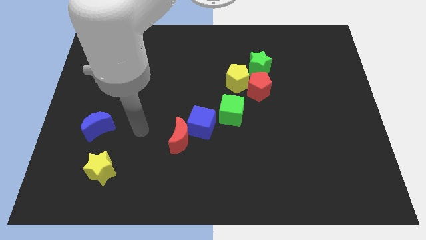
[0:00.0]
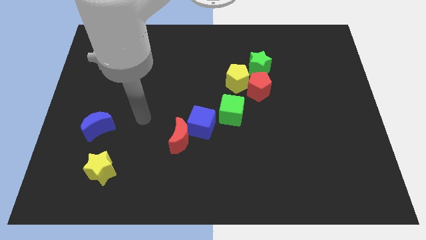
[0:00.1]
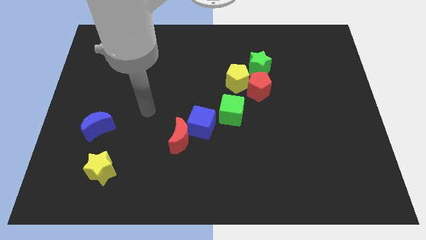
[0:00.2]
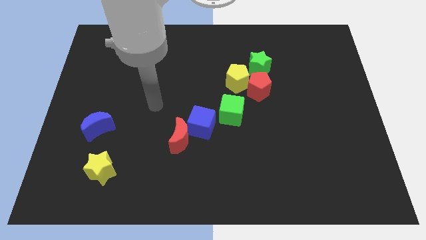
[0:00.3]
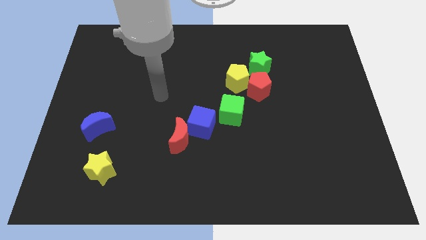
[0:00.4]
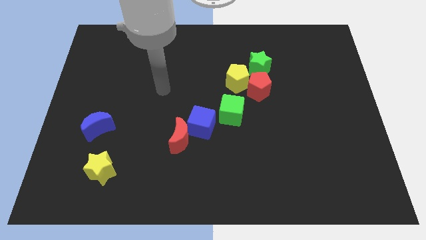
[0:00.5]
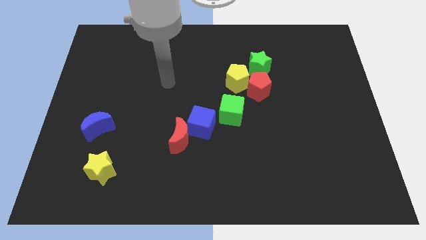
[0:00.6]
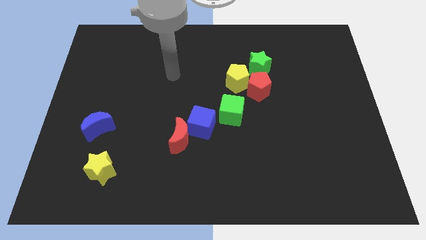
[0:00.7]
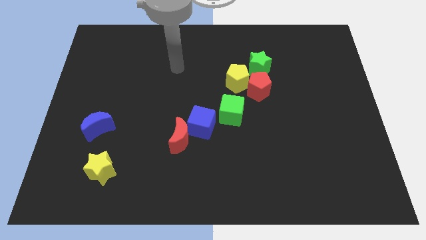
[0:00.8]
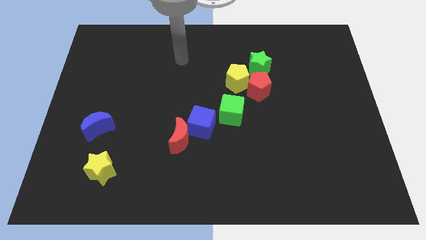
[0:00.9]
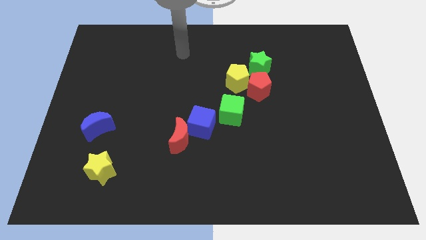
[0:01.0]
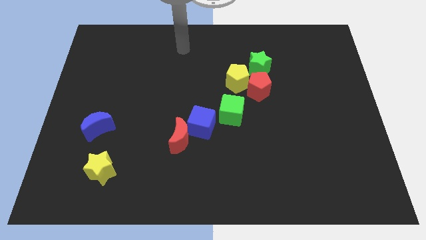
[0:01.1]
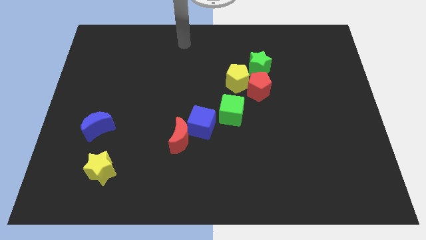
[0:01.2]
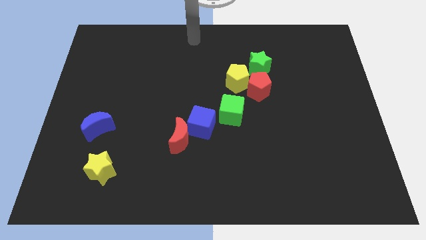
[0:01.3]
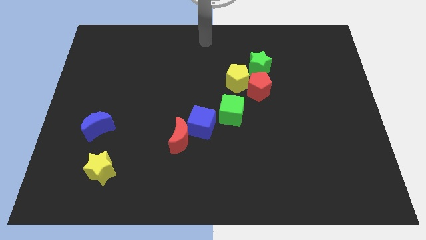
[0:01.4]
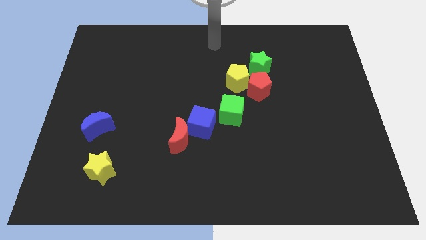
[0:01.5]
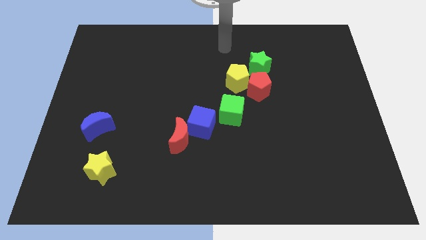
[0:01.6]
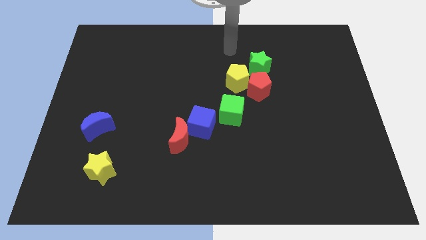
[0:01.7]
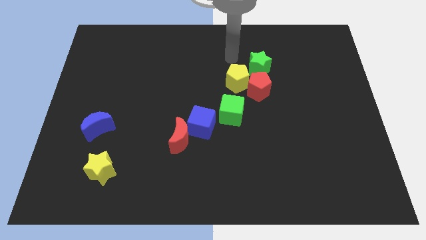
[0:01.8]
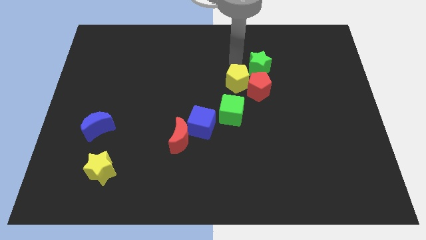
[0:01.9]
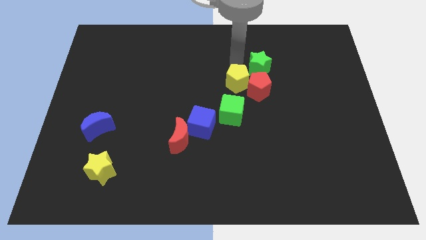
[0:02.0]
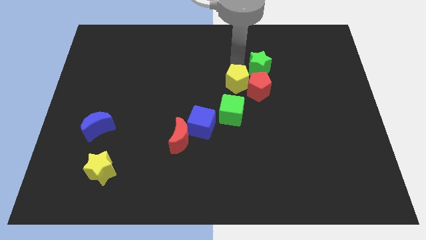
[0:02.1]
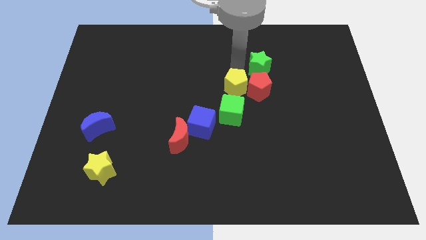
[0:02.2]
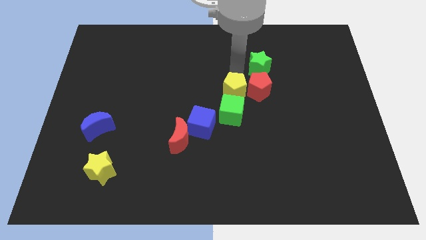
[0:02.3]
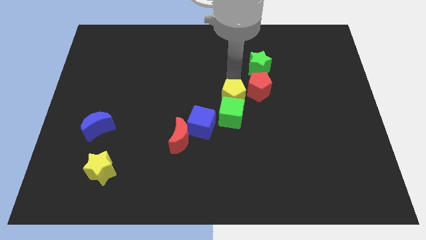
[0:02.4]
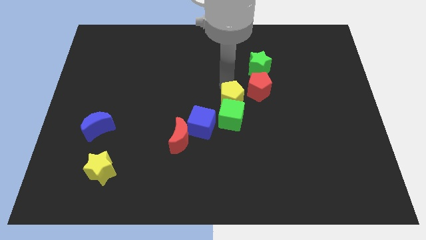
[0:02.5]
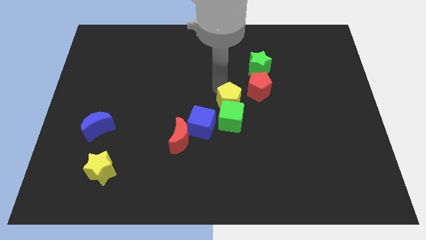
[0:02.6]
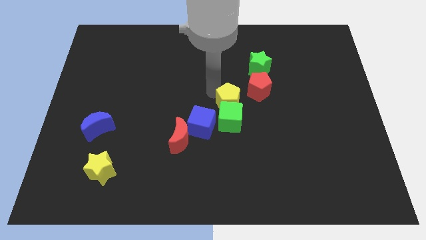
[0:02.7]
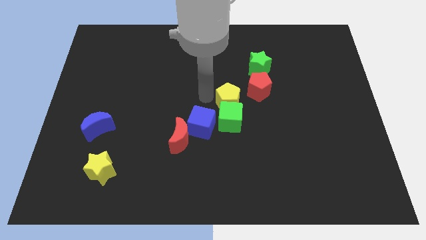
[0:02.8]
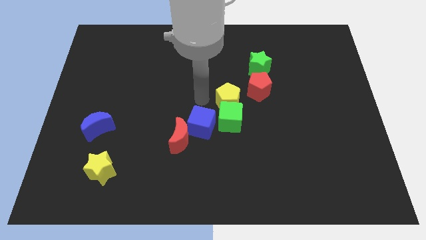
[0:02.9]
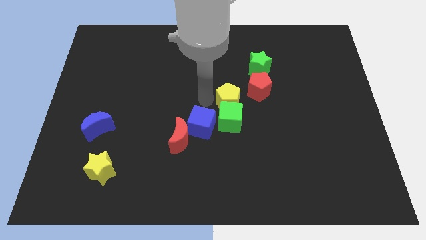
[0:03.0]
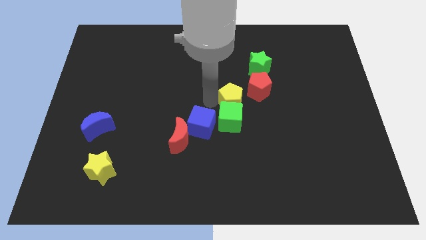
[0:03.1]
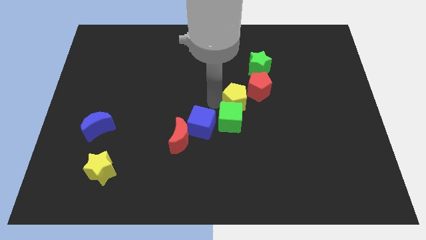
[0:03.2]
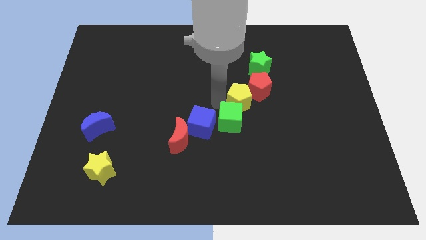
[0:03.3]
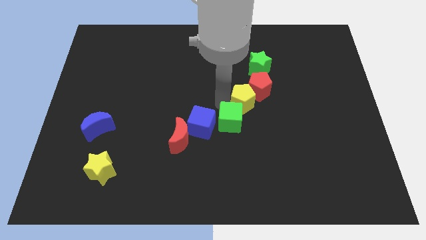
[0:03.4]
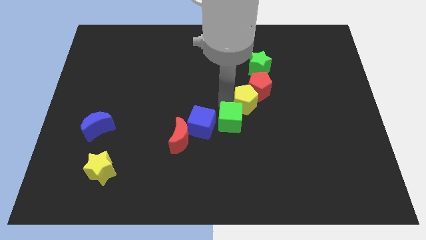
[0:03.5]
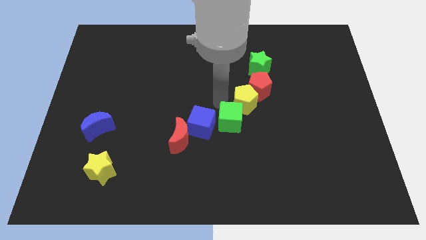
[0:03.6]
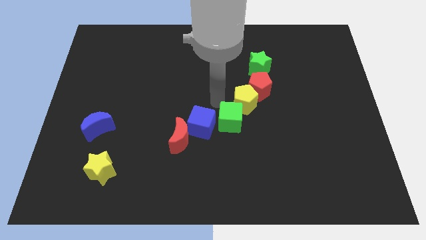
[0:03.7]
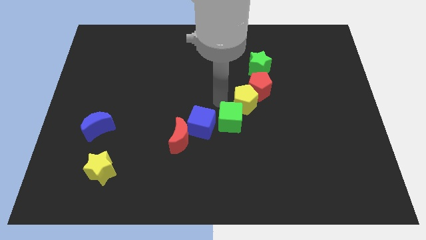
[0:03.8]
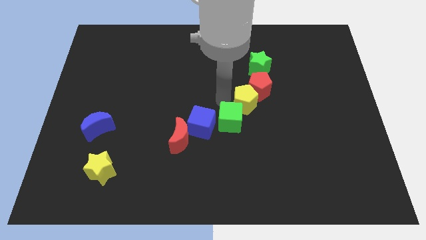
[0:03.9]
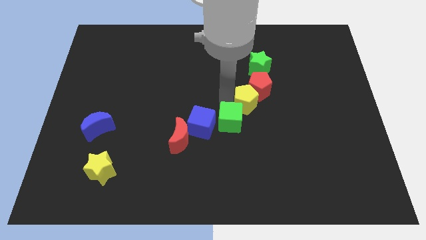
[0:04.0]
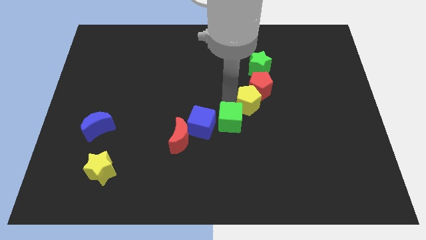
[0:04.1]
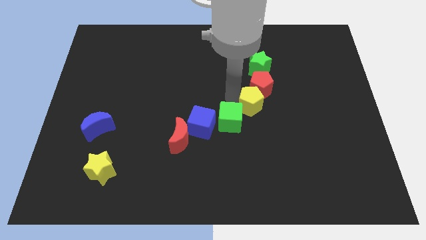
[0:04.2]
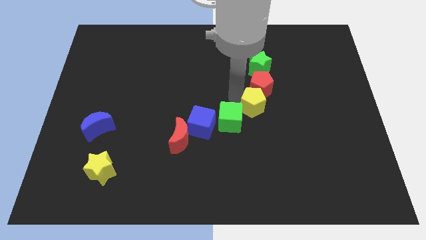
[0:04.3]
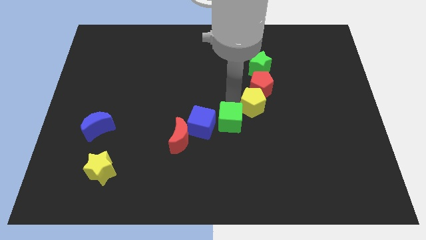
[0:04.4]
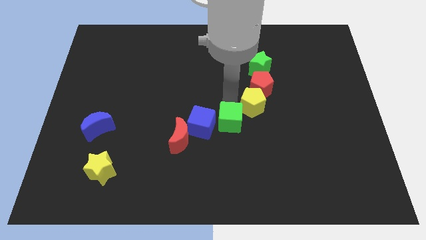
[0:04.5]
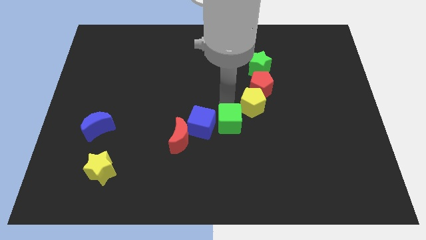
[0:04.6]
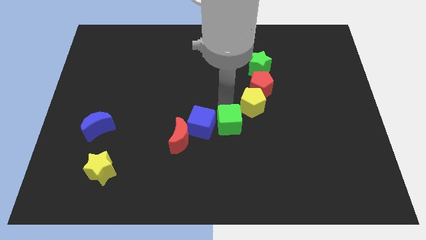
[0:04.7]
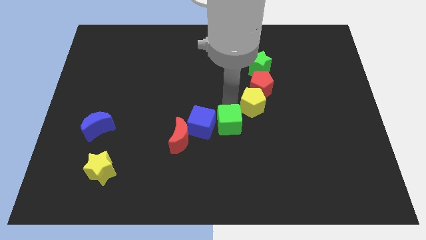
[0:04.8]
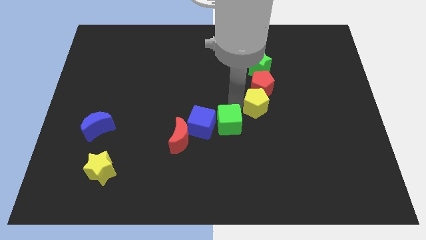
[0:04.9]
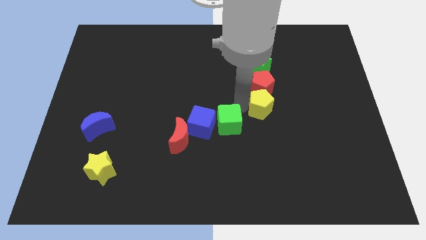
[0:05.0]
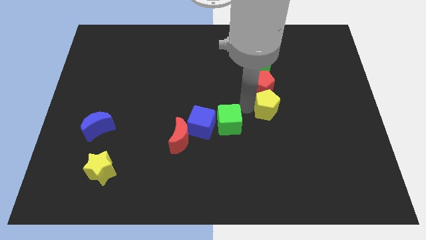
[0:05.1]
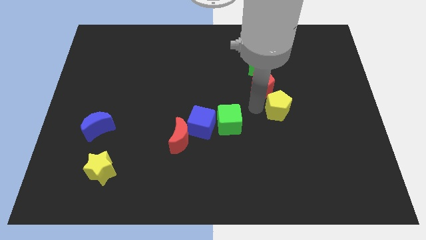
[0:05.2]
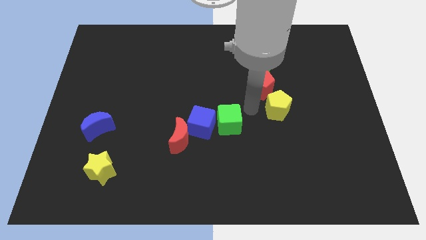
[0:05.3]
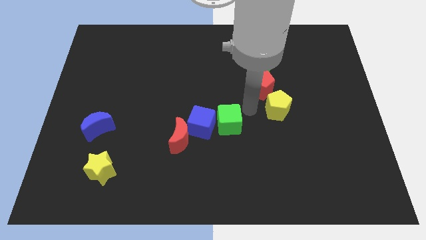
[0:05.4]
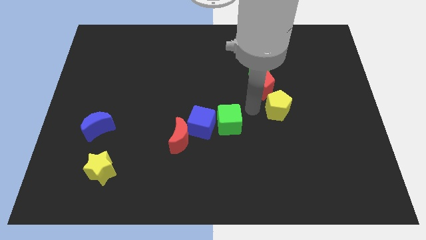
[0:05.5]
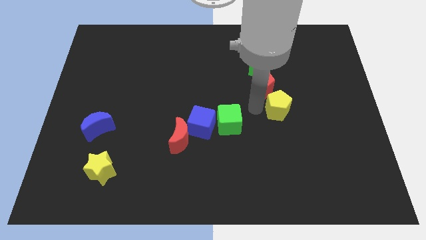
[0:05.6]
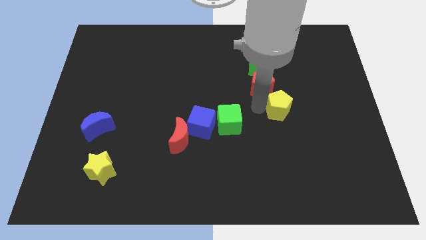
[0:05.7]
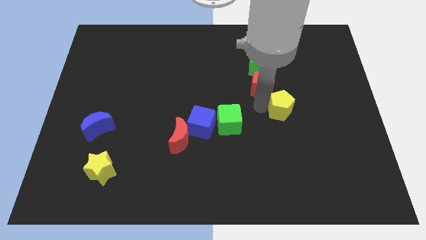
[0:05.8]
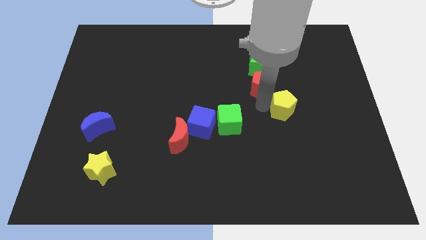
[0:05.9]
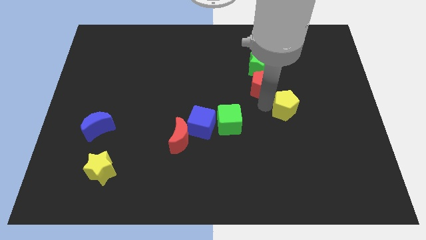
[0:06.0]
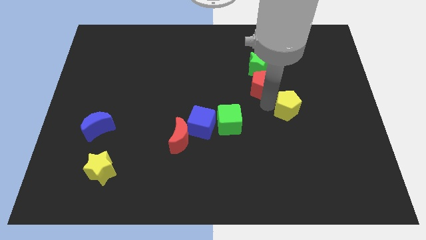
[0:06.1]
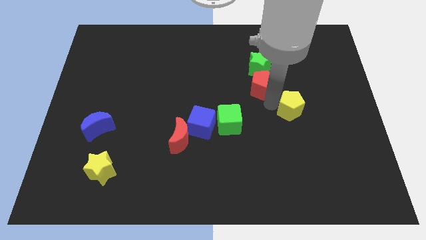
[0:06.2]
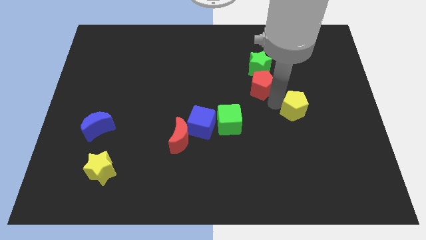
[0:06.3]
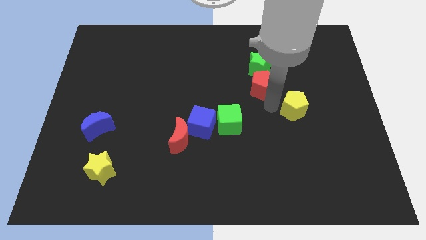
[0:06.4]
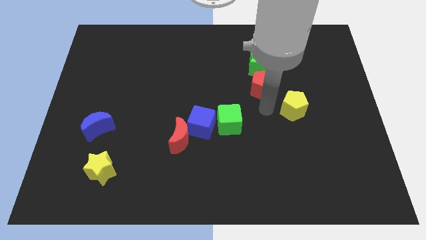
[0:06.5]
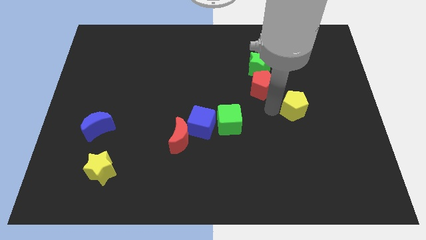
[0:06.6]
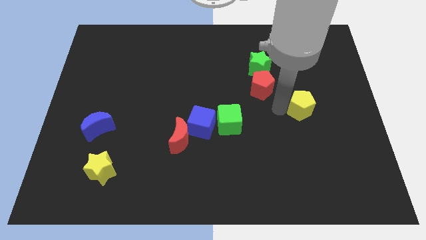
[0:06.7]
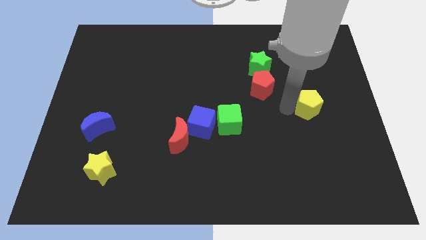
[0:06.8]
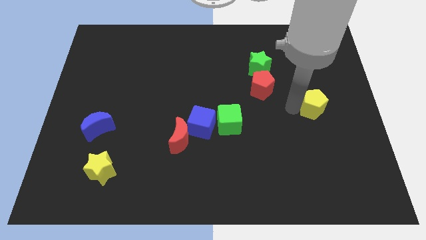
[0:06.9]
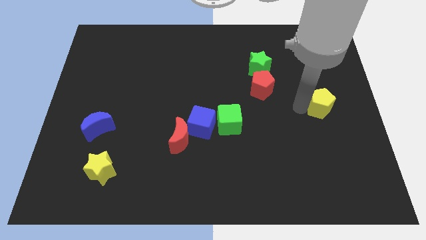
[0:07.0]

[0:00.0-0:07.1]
put the yellow pentagon to the right side of the board

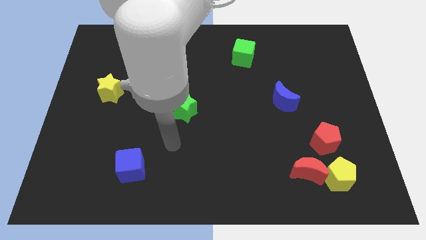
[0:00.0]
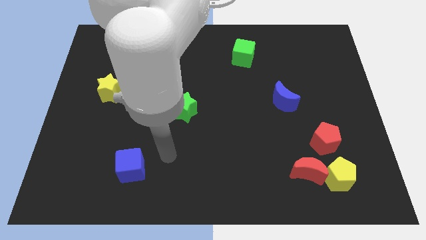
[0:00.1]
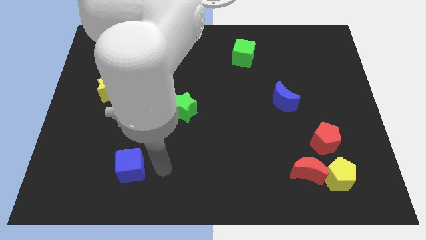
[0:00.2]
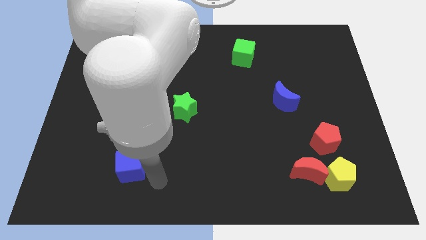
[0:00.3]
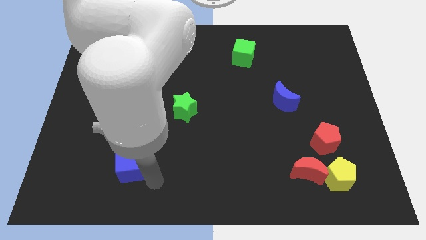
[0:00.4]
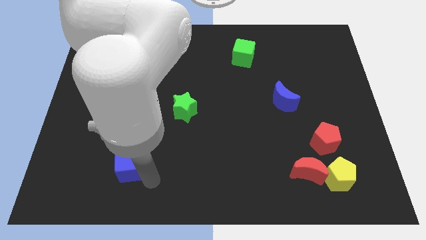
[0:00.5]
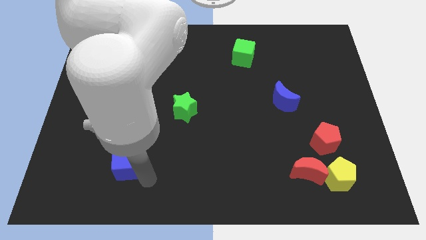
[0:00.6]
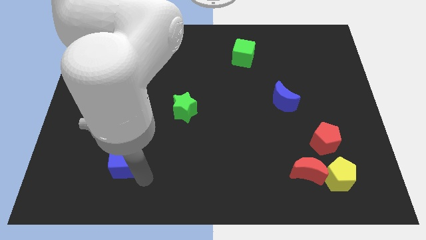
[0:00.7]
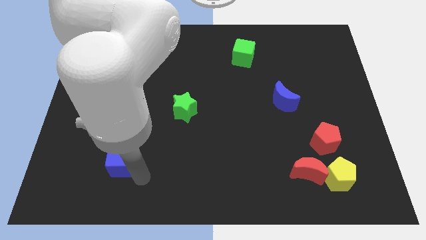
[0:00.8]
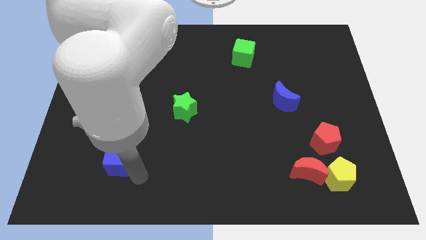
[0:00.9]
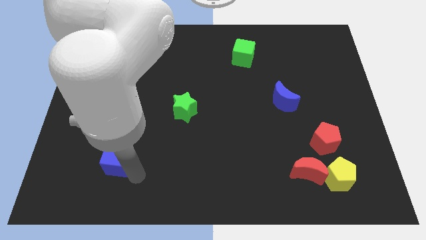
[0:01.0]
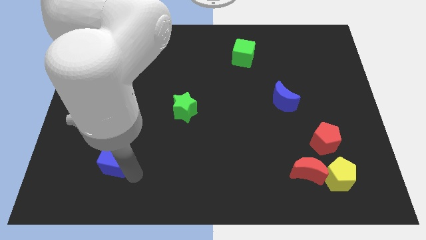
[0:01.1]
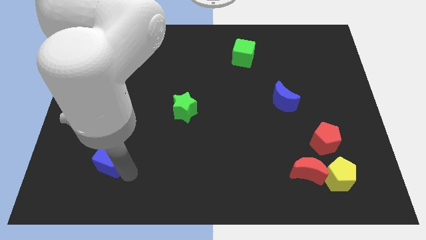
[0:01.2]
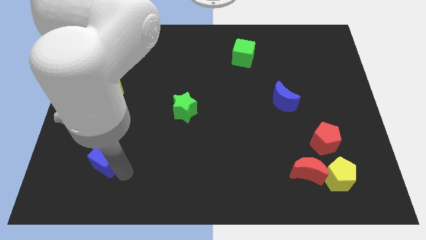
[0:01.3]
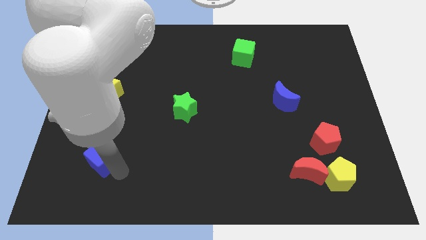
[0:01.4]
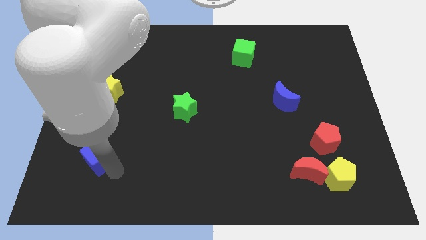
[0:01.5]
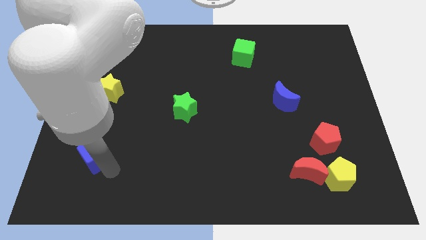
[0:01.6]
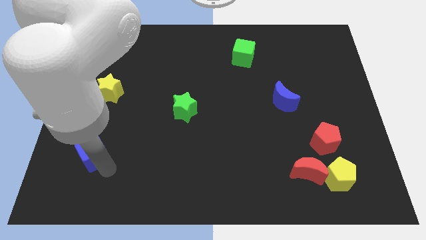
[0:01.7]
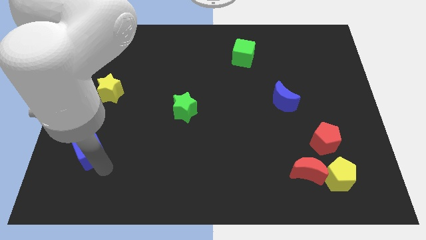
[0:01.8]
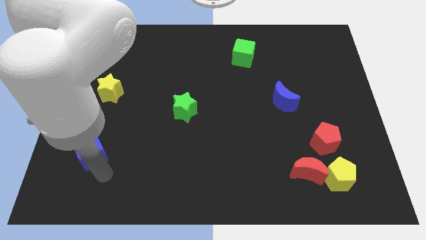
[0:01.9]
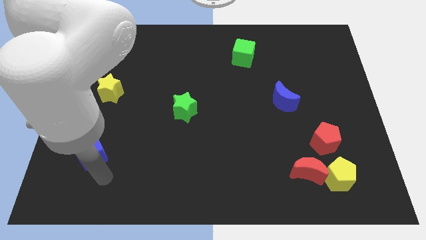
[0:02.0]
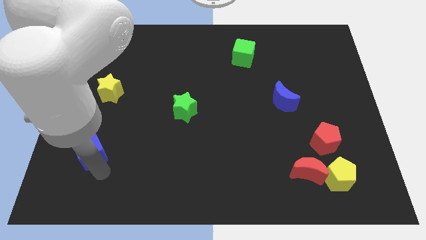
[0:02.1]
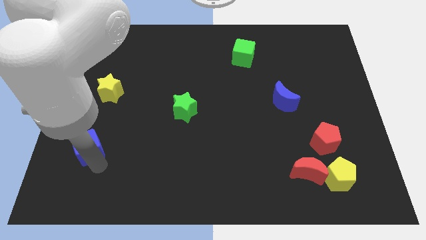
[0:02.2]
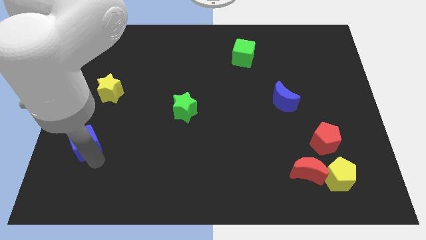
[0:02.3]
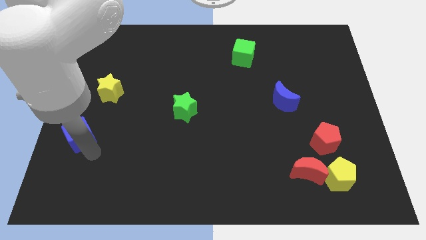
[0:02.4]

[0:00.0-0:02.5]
push the blue cube to the center left
